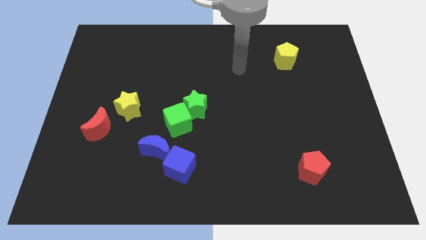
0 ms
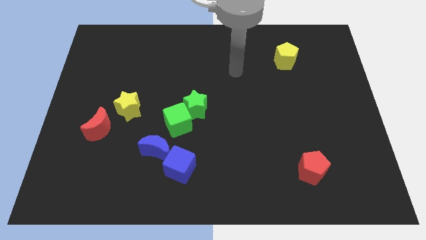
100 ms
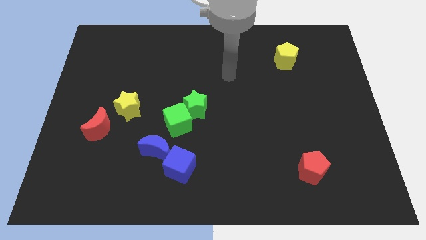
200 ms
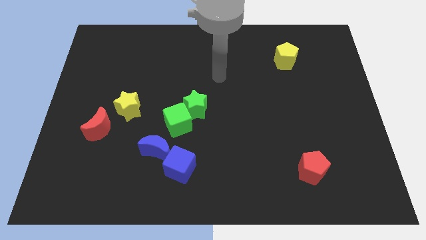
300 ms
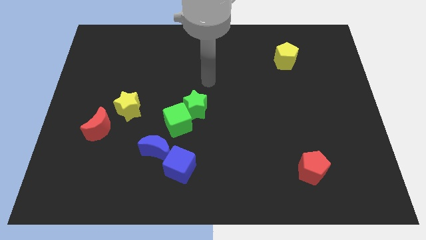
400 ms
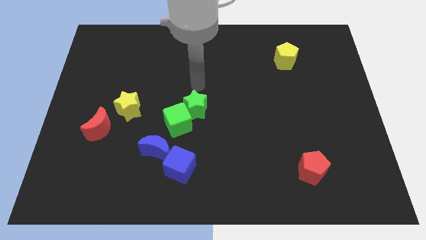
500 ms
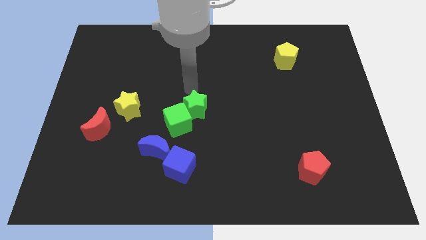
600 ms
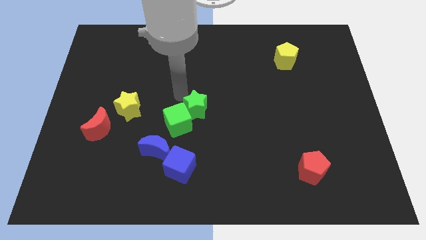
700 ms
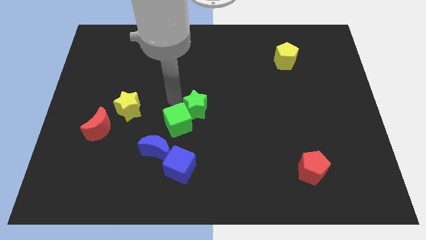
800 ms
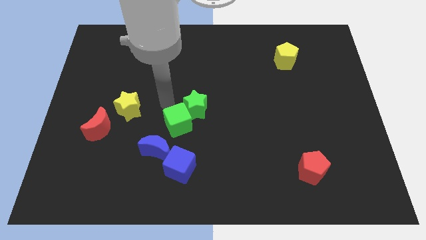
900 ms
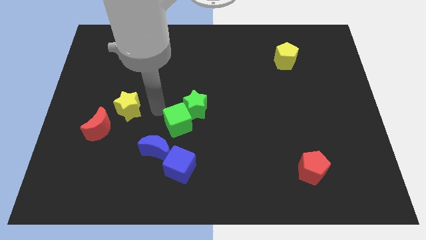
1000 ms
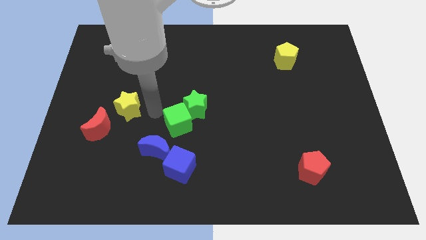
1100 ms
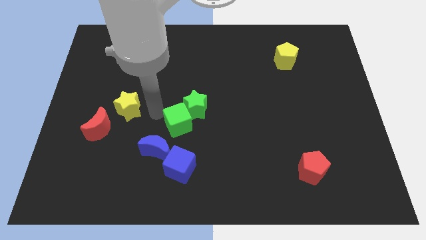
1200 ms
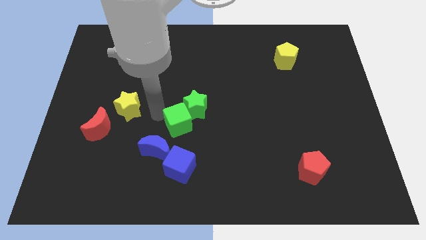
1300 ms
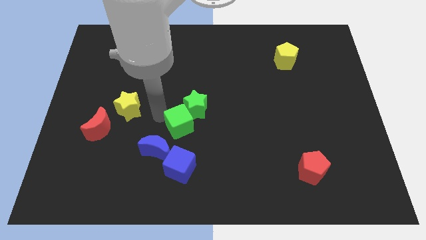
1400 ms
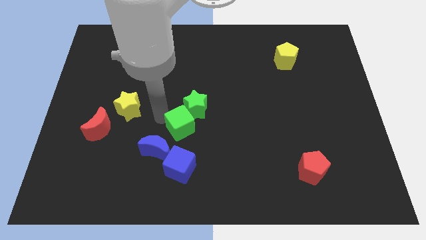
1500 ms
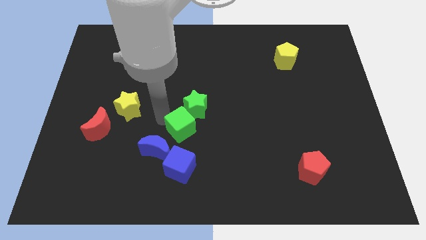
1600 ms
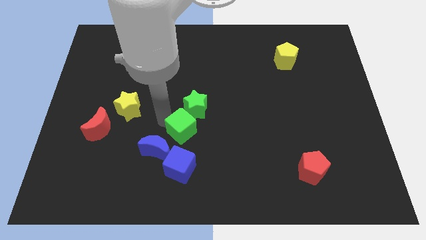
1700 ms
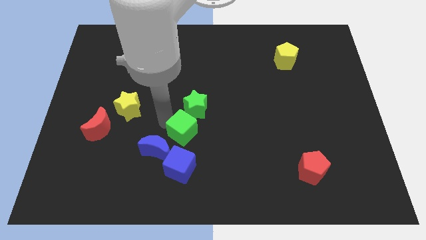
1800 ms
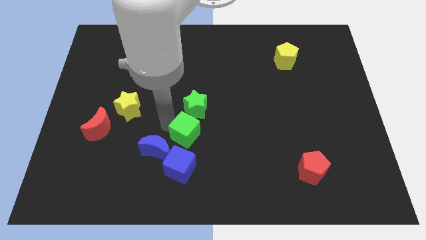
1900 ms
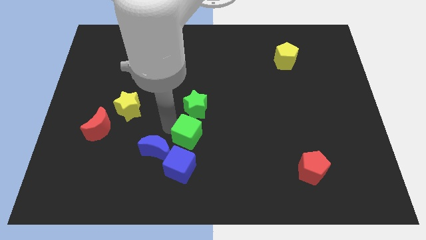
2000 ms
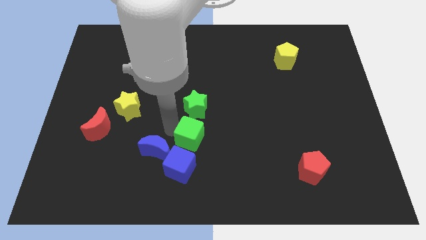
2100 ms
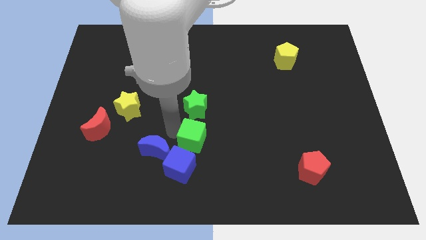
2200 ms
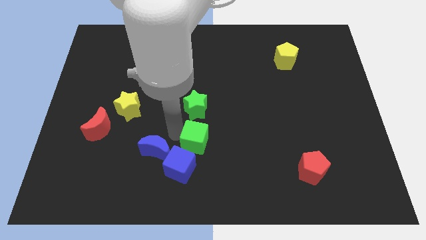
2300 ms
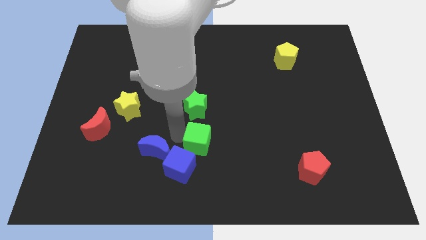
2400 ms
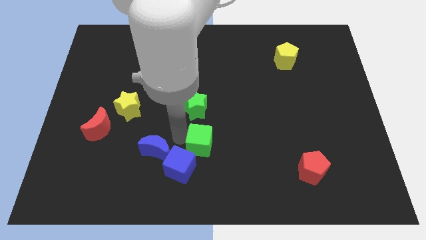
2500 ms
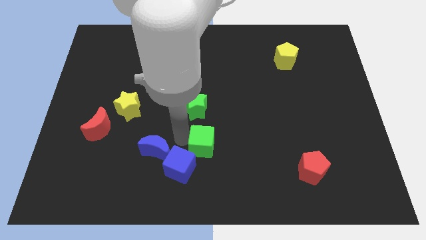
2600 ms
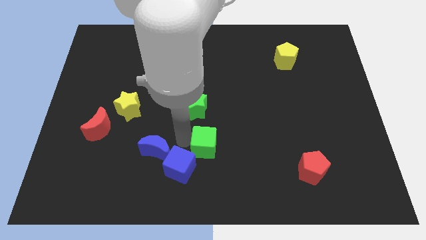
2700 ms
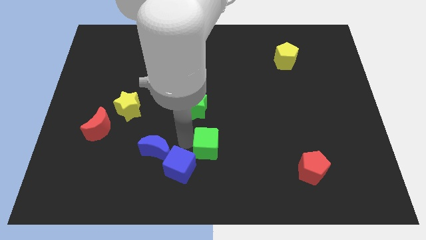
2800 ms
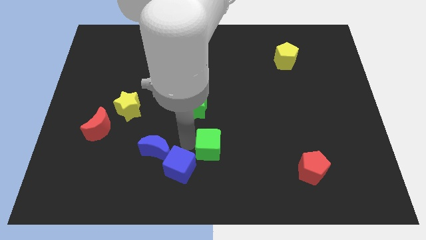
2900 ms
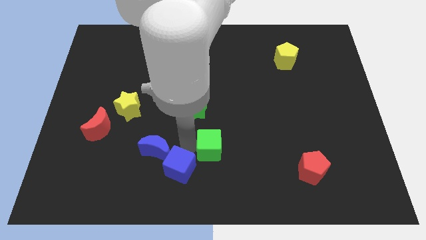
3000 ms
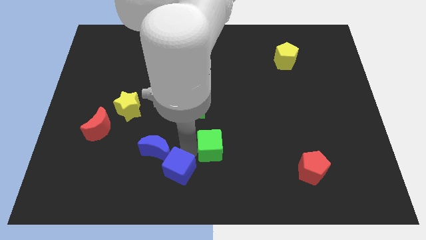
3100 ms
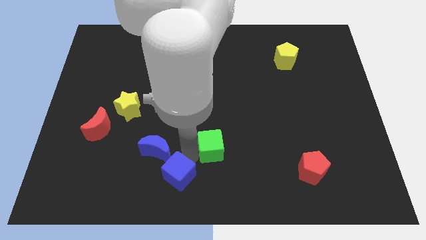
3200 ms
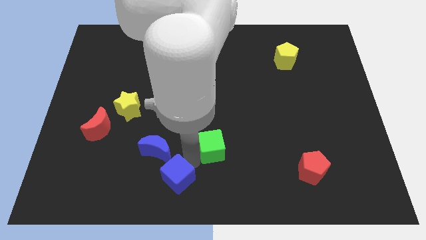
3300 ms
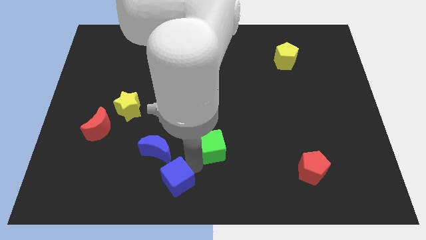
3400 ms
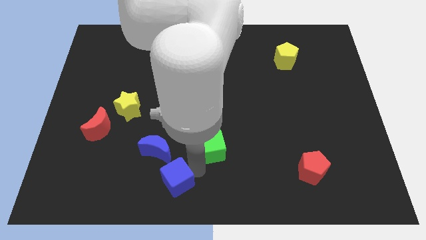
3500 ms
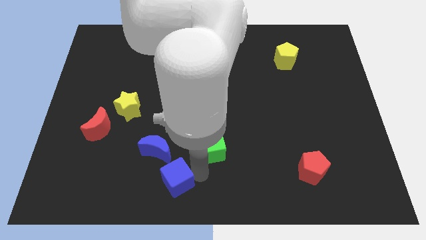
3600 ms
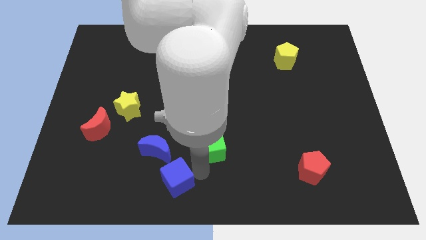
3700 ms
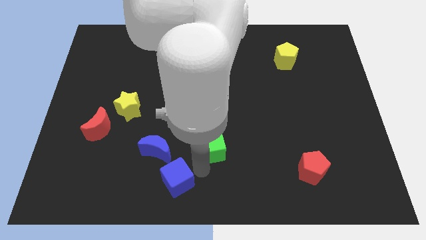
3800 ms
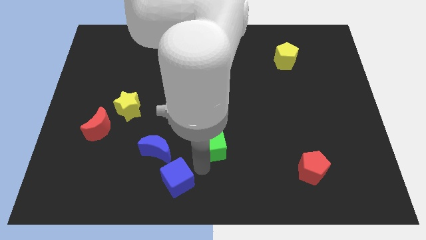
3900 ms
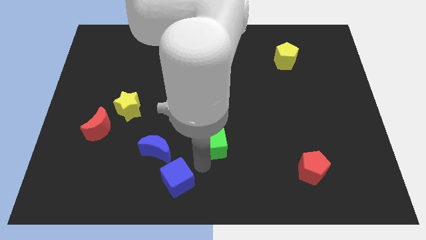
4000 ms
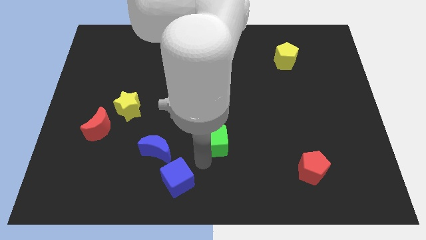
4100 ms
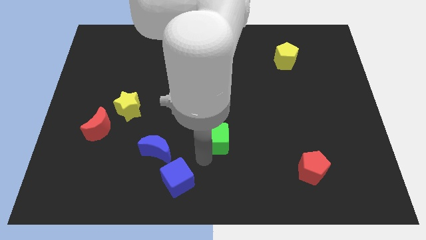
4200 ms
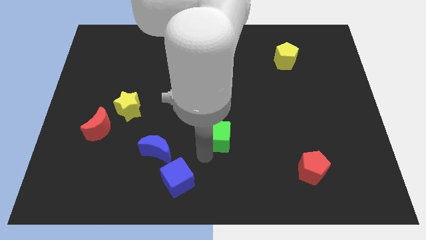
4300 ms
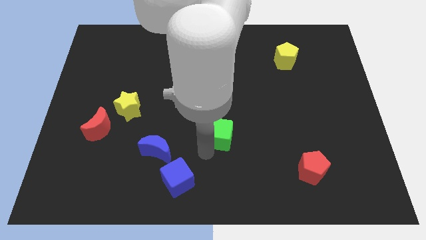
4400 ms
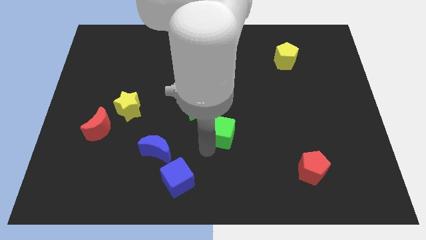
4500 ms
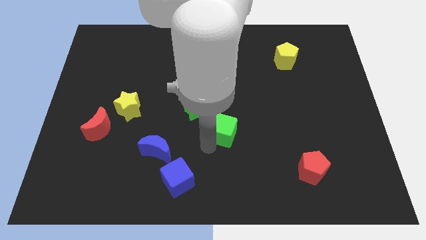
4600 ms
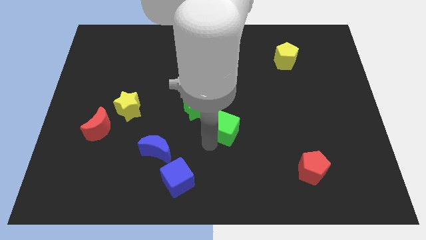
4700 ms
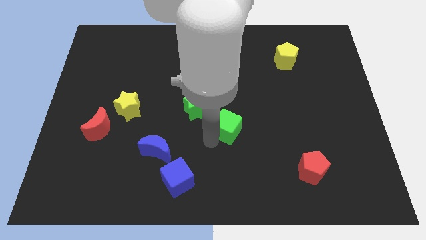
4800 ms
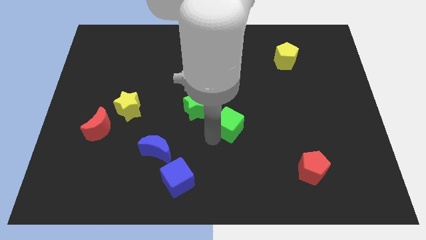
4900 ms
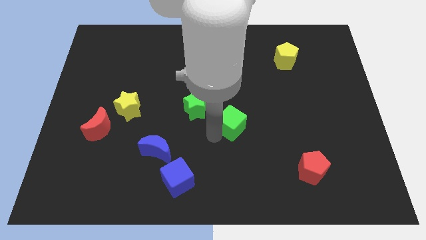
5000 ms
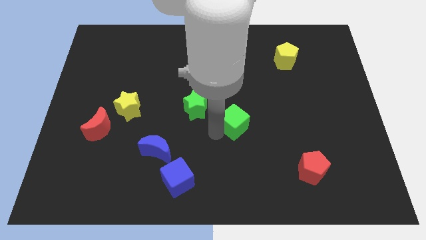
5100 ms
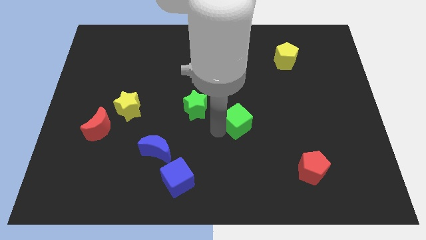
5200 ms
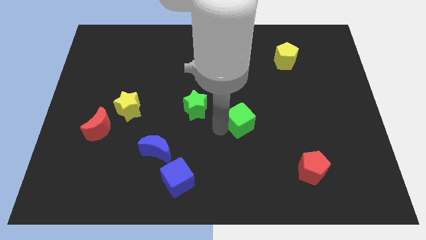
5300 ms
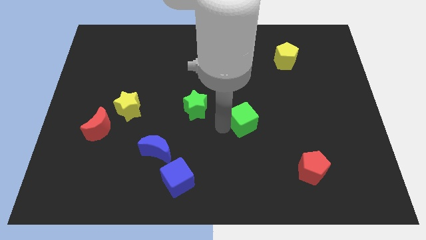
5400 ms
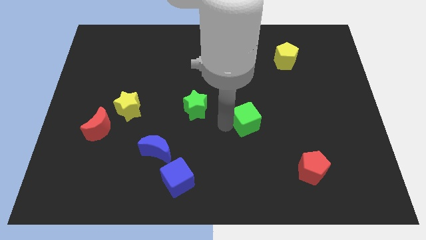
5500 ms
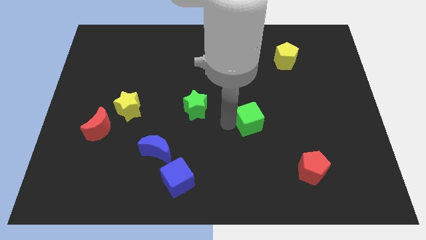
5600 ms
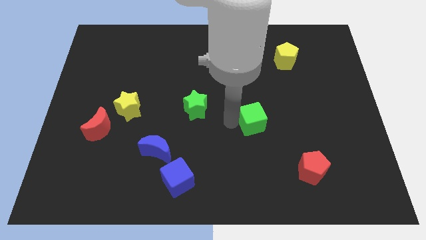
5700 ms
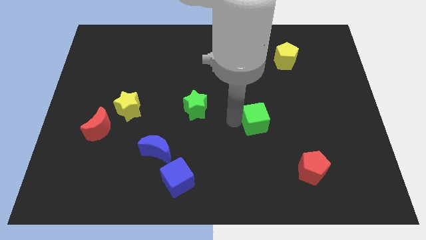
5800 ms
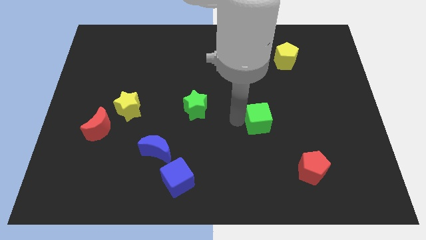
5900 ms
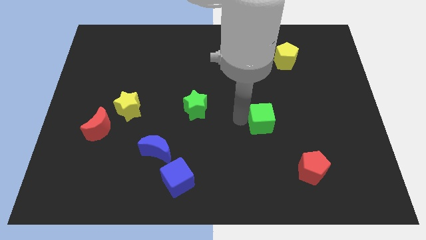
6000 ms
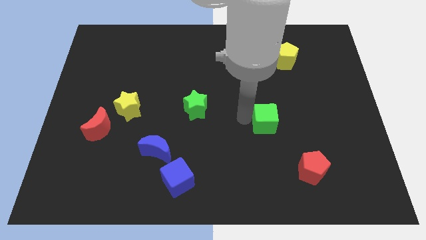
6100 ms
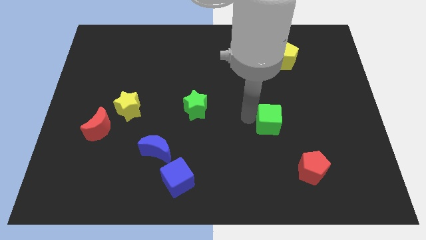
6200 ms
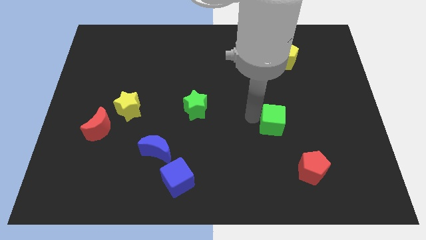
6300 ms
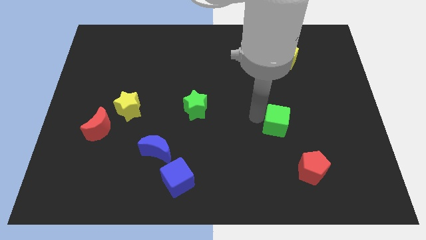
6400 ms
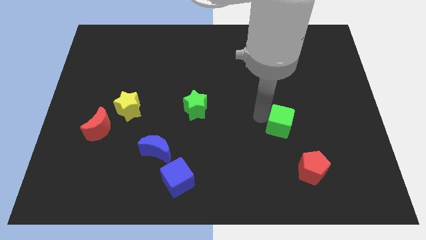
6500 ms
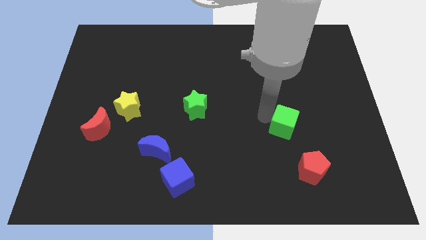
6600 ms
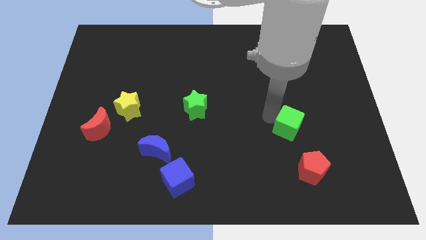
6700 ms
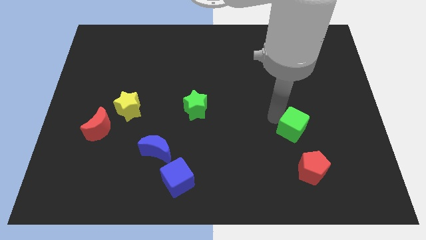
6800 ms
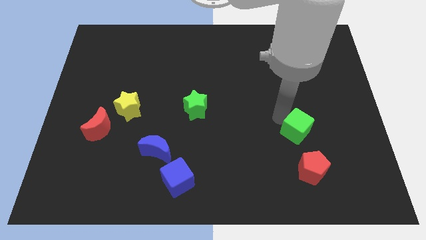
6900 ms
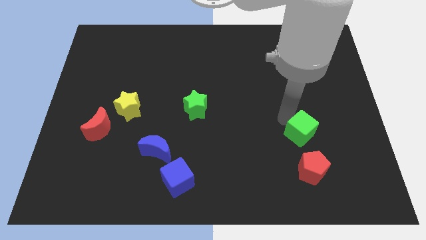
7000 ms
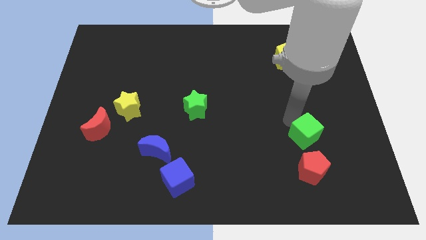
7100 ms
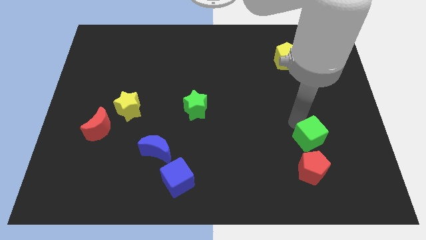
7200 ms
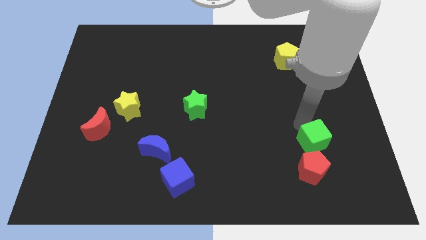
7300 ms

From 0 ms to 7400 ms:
push the green cube diagonally up and to the right of the red pentagon
